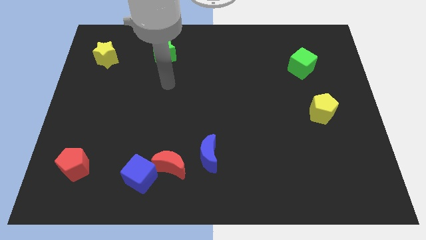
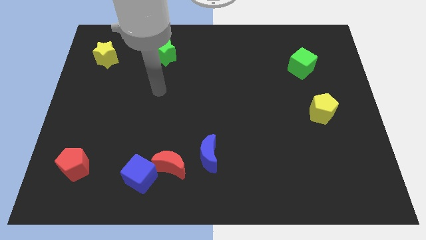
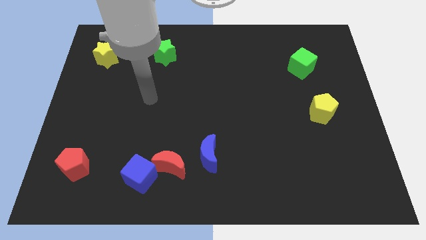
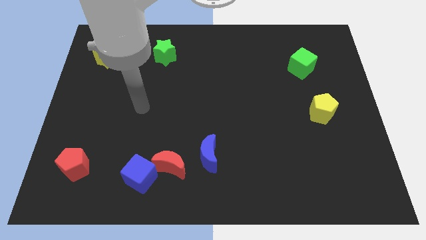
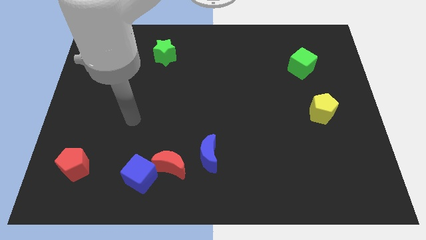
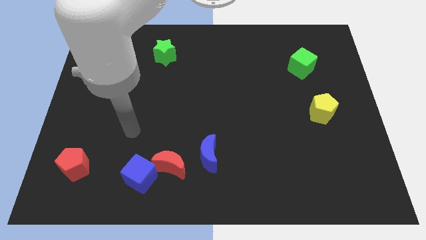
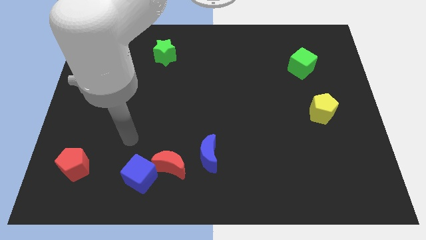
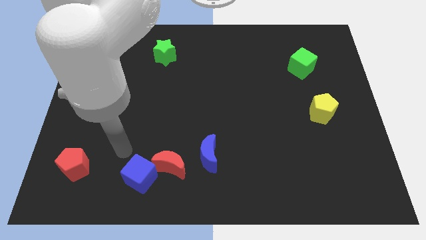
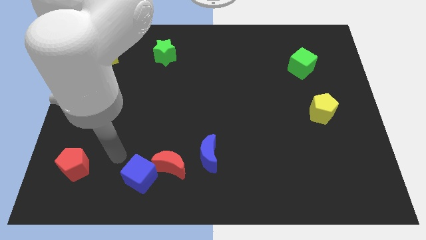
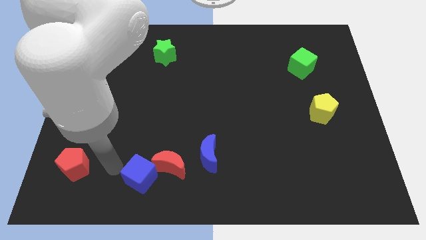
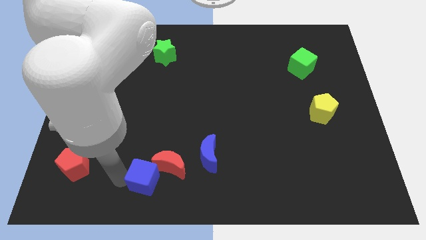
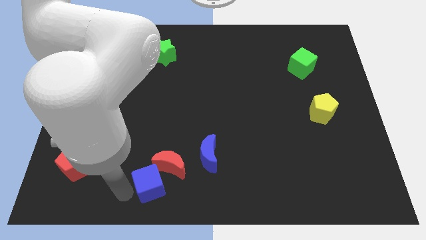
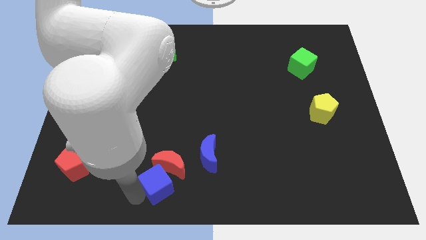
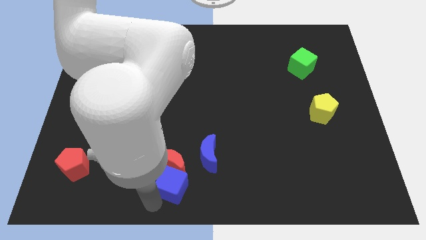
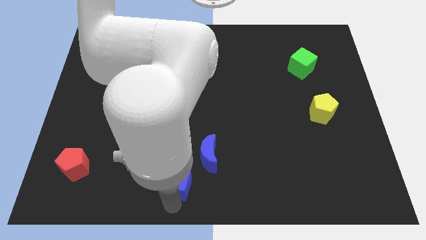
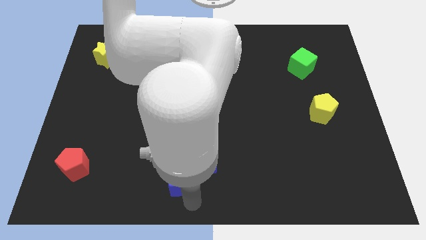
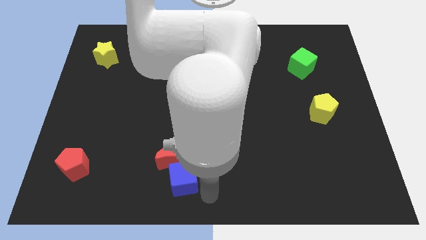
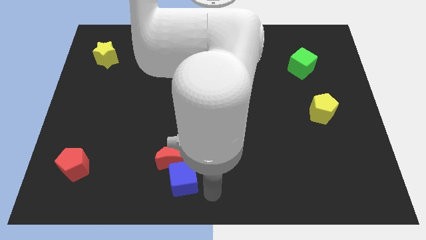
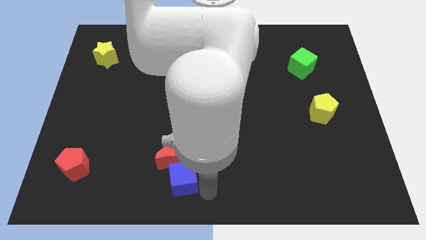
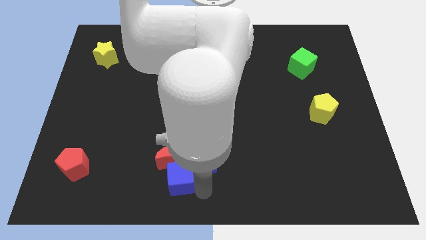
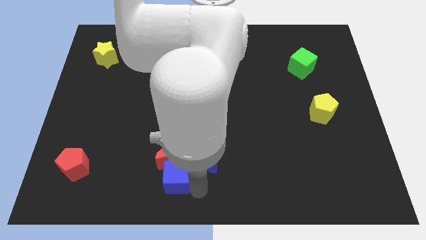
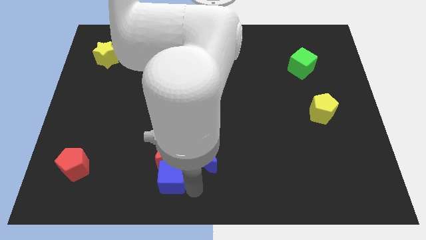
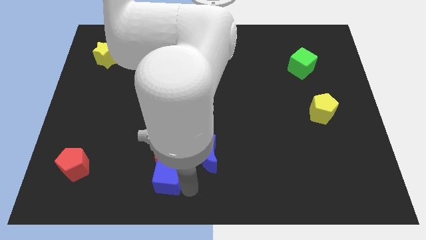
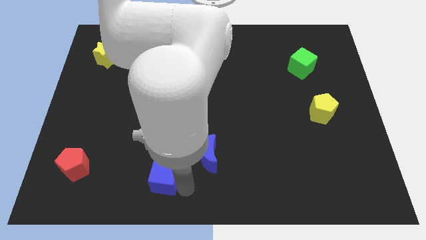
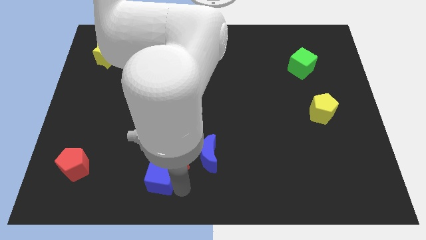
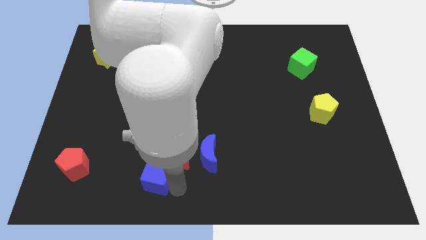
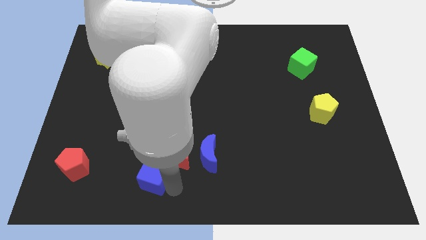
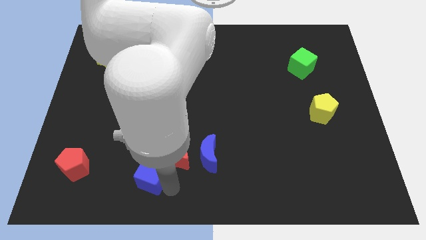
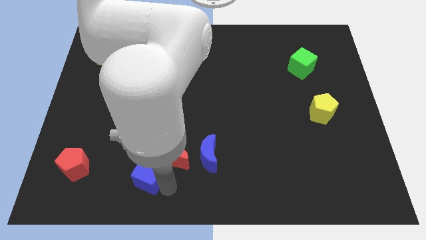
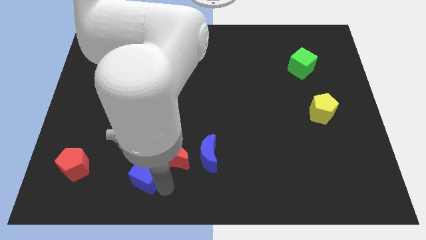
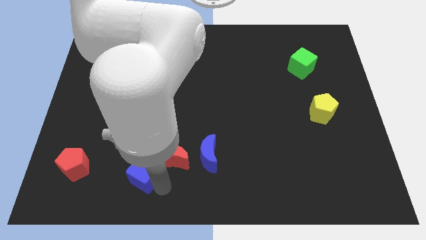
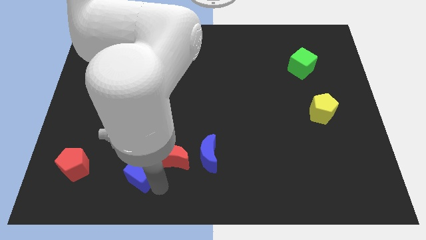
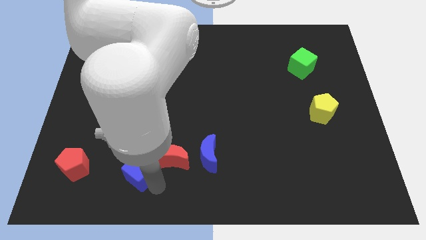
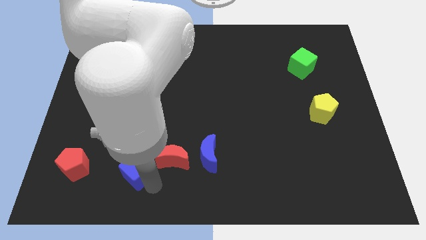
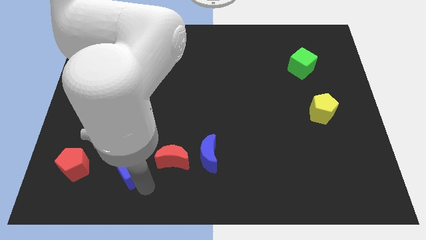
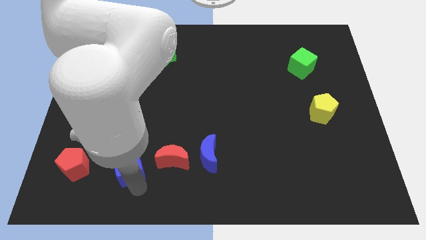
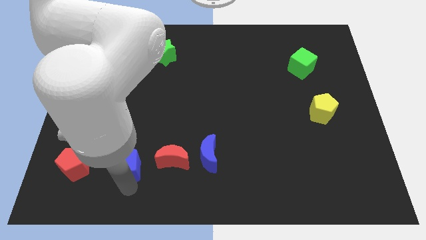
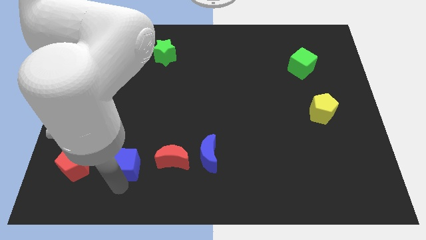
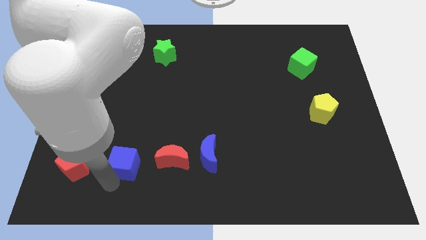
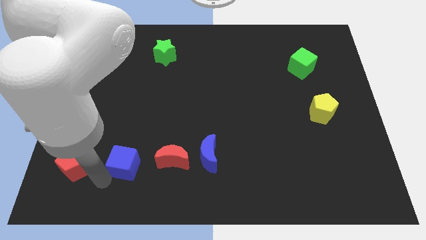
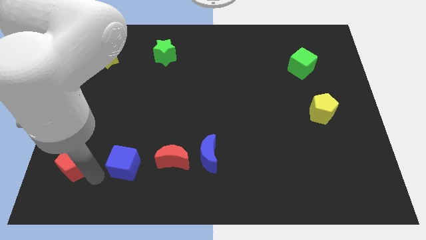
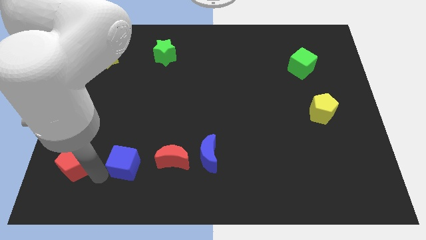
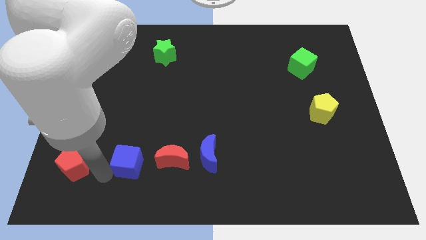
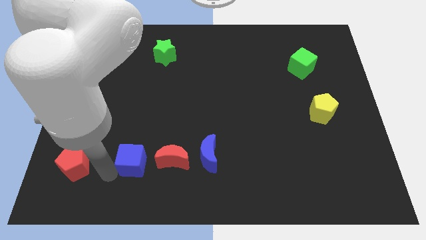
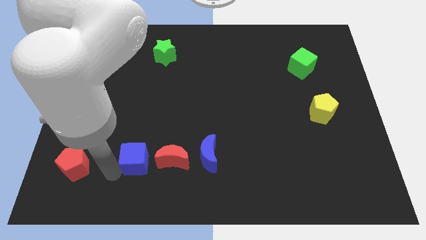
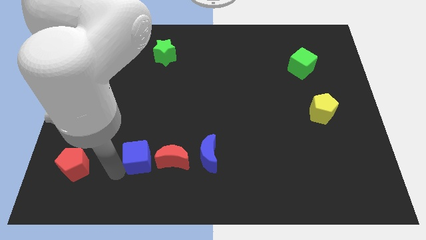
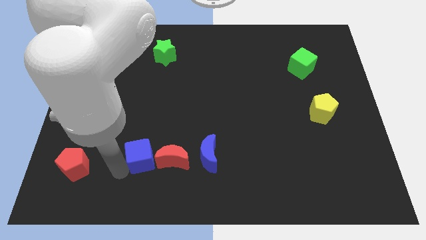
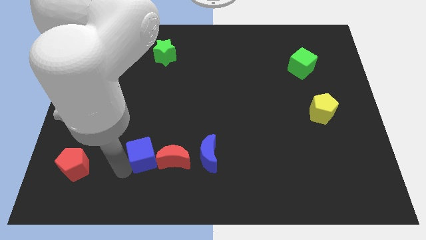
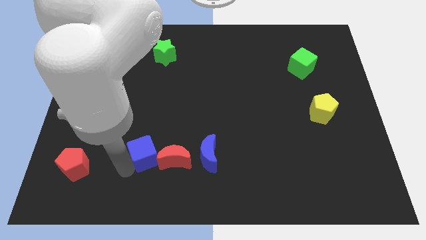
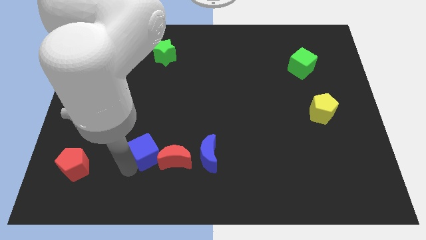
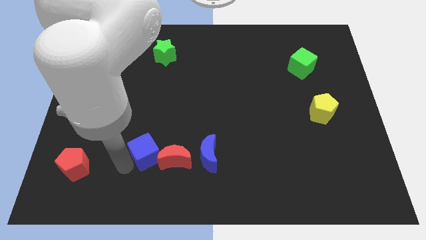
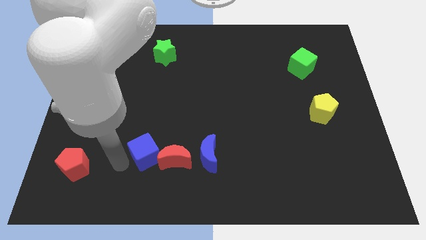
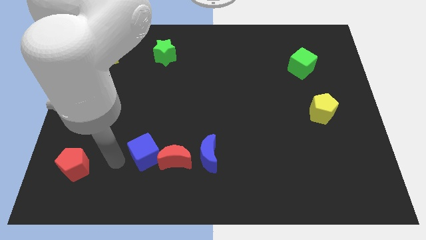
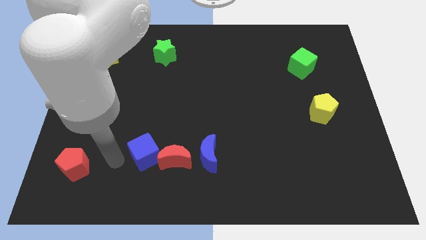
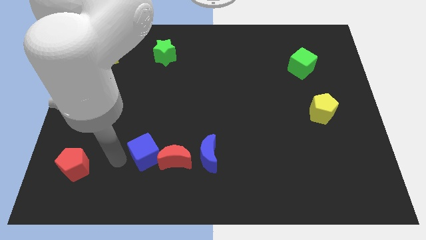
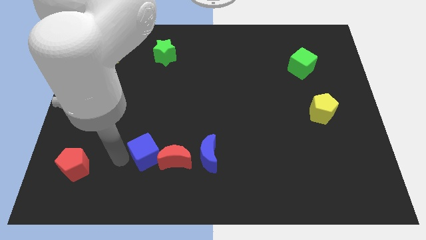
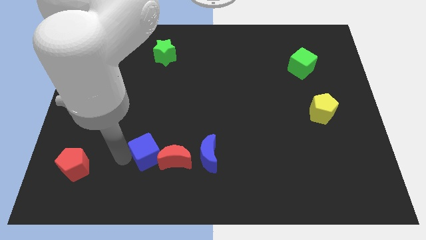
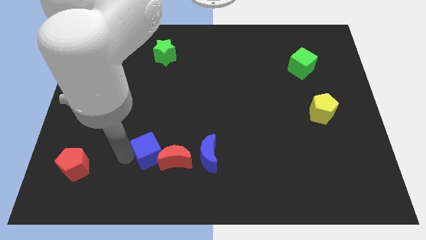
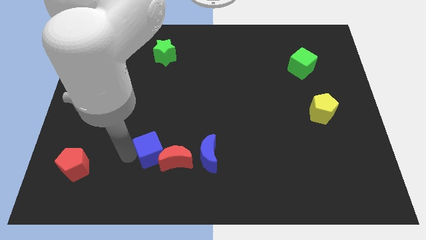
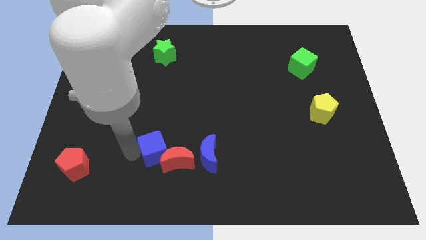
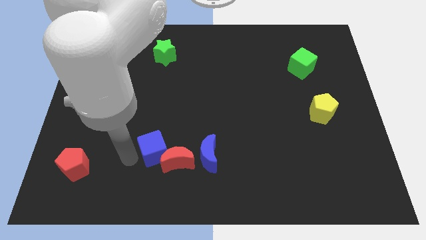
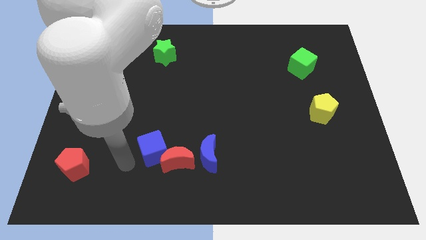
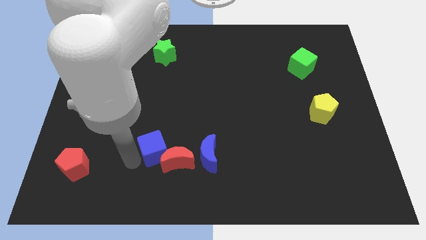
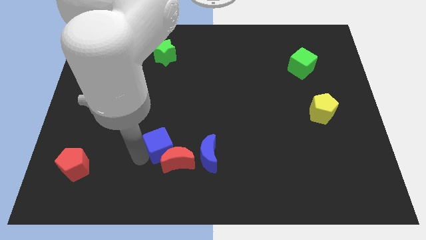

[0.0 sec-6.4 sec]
slightly move the blue cube up and then right

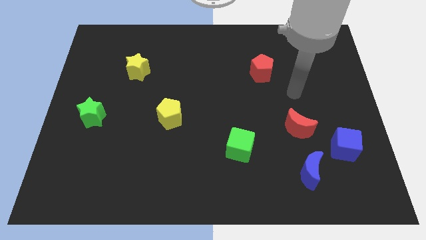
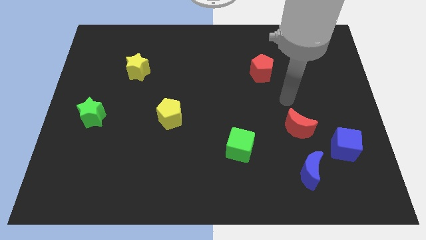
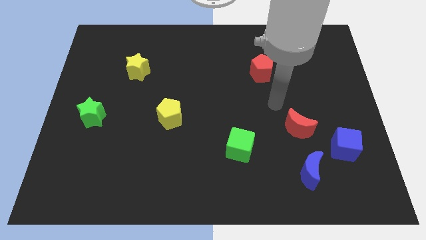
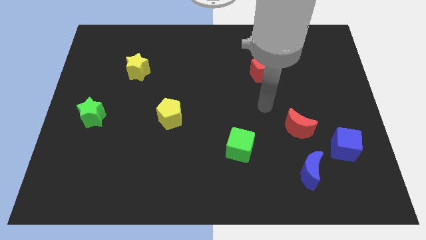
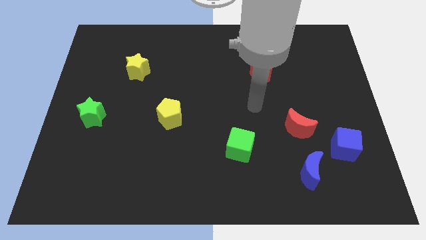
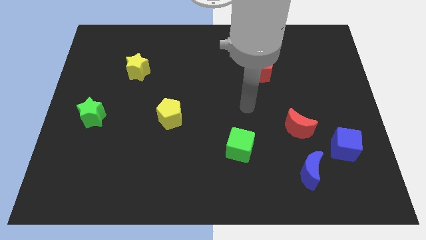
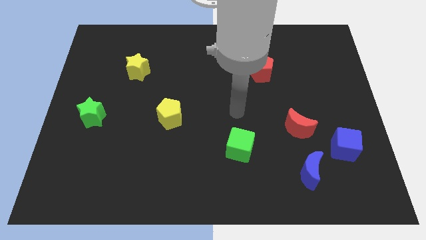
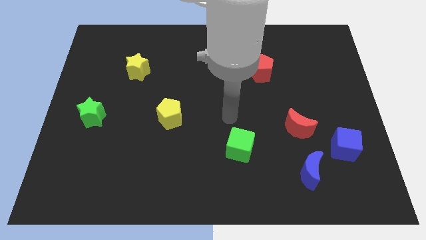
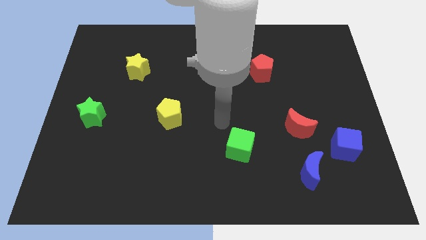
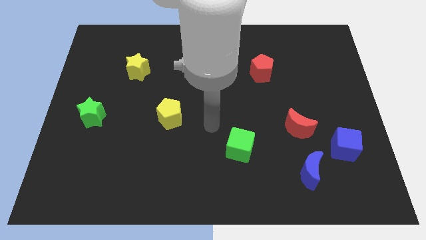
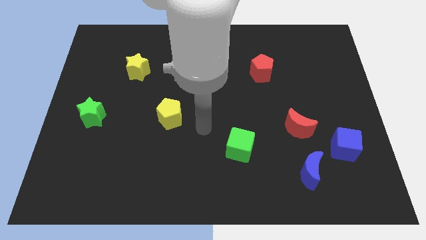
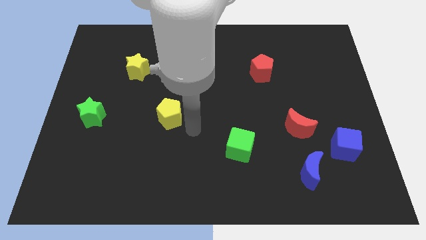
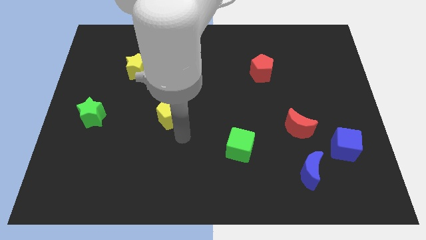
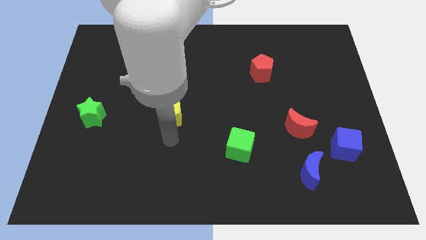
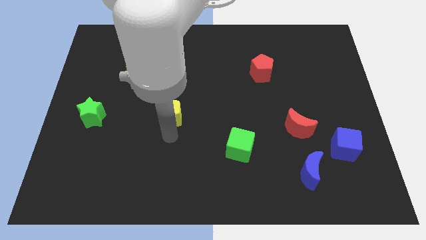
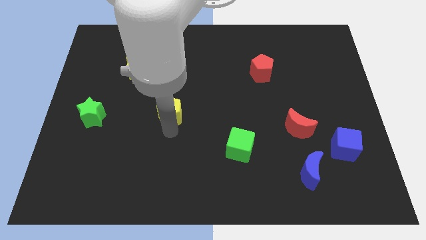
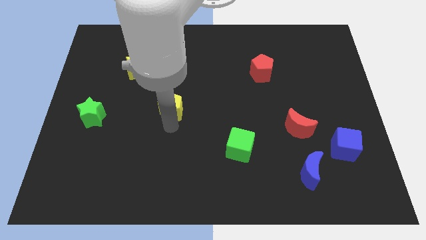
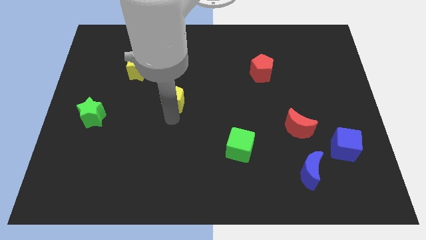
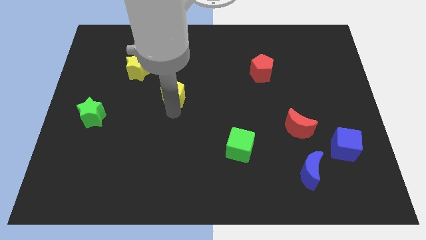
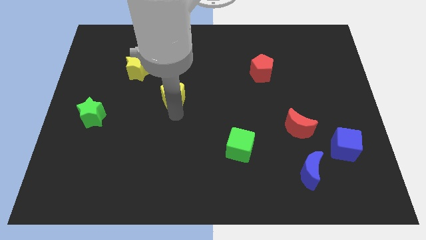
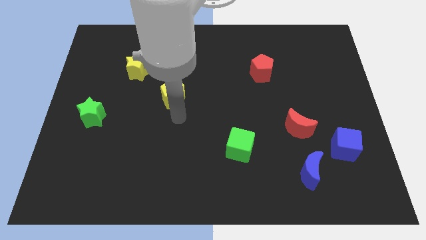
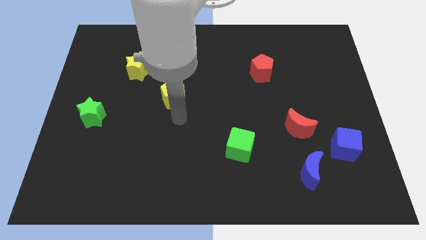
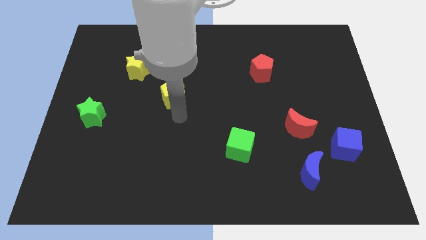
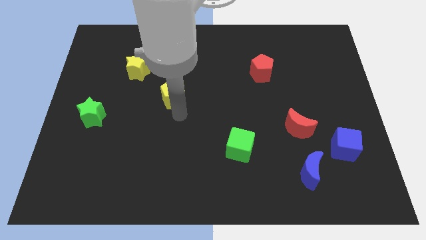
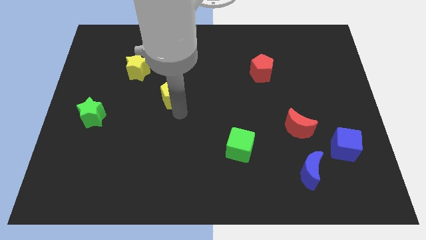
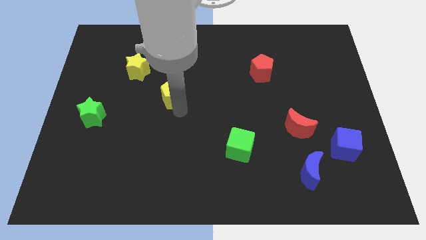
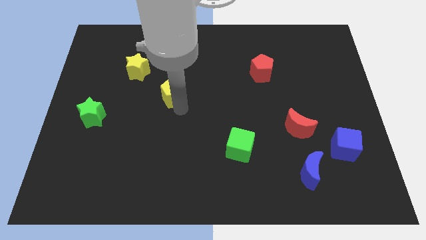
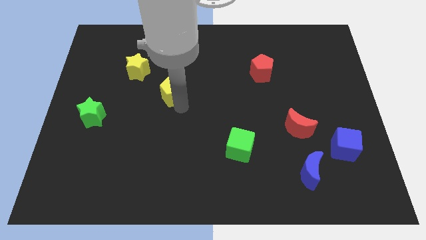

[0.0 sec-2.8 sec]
slide the yellow pentagon slightly up
